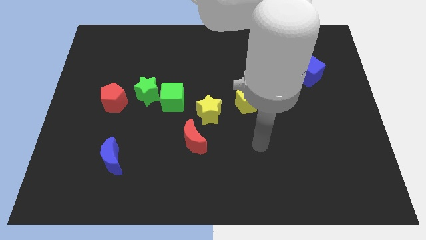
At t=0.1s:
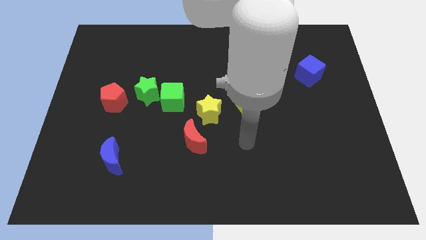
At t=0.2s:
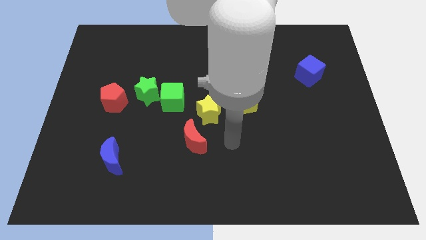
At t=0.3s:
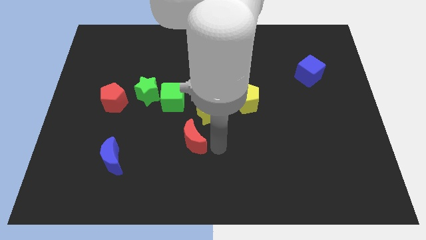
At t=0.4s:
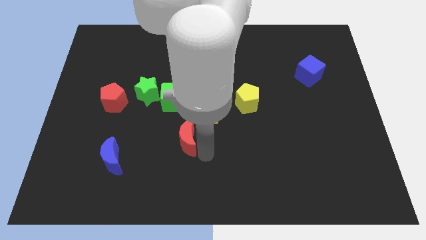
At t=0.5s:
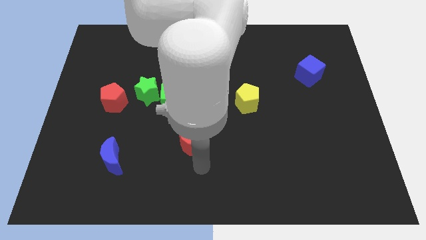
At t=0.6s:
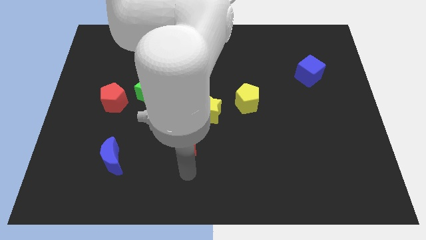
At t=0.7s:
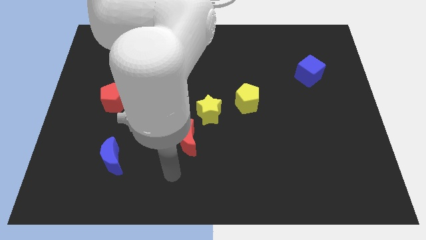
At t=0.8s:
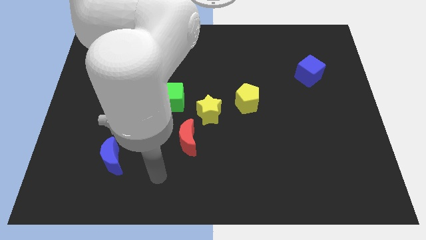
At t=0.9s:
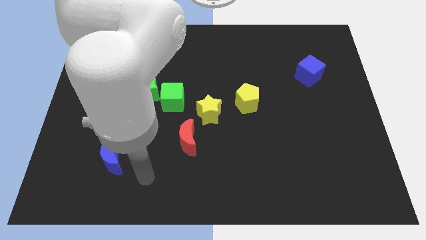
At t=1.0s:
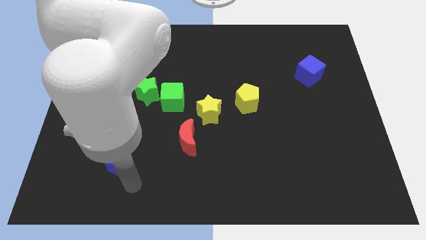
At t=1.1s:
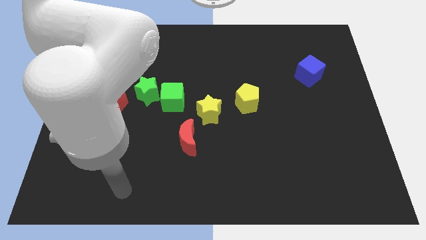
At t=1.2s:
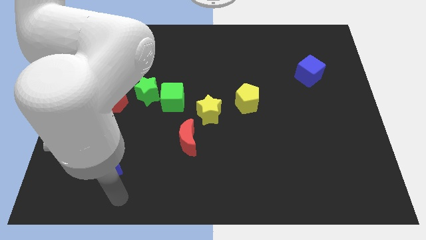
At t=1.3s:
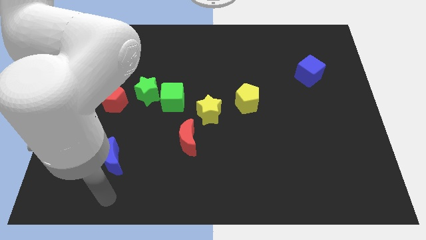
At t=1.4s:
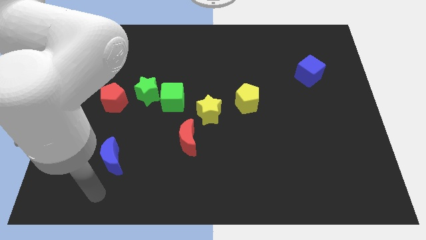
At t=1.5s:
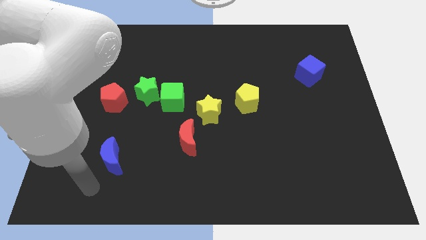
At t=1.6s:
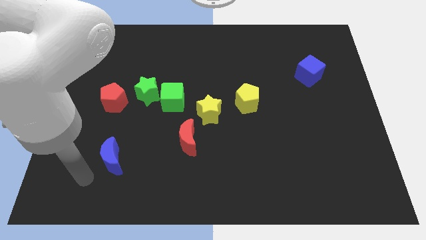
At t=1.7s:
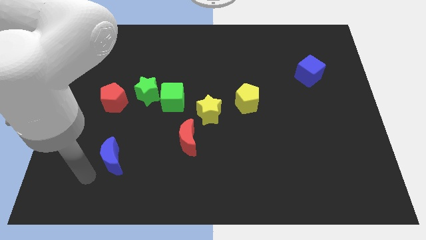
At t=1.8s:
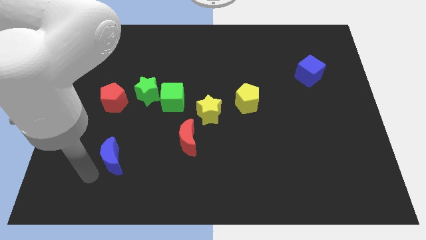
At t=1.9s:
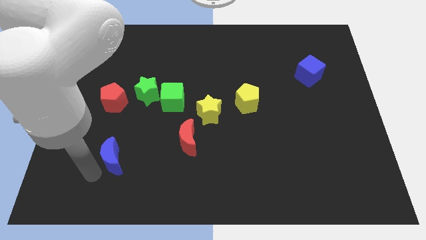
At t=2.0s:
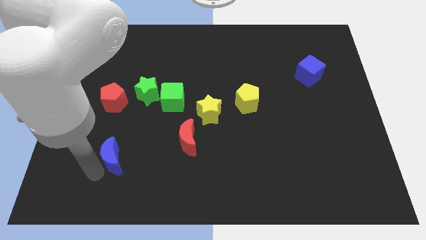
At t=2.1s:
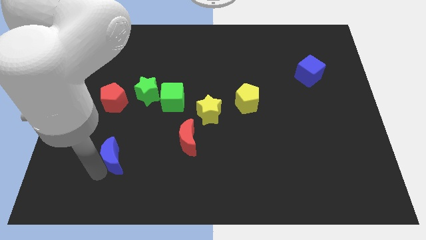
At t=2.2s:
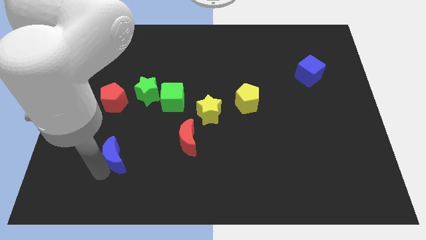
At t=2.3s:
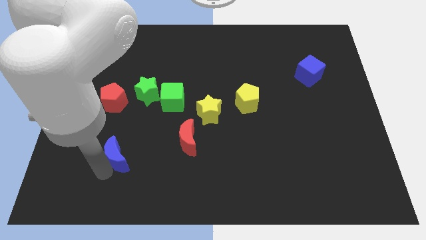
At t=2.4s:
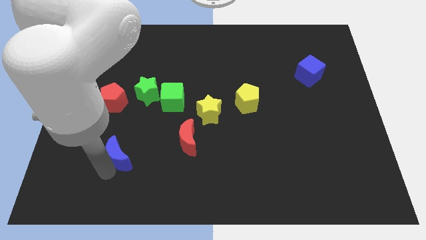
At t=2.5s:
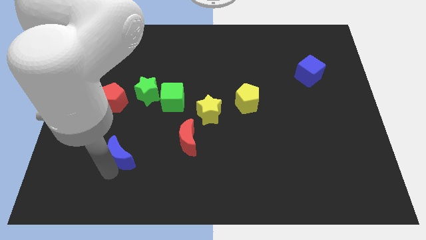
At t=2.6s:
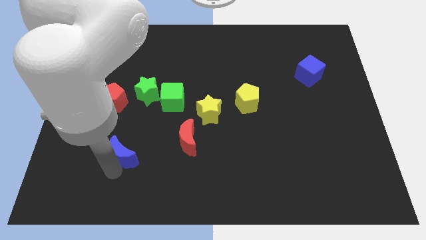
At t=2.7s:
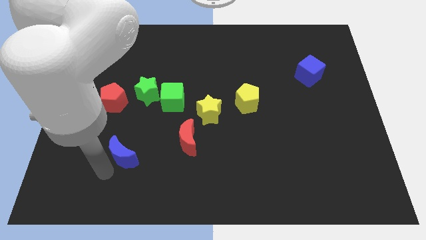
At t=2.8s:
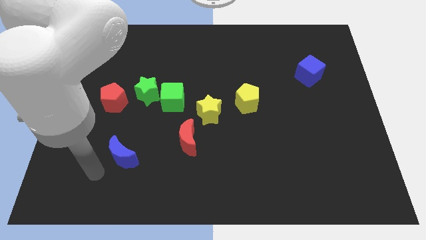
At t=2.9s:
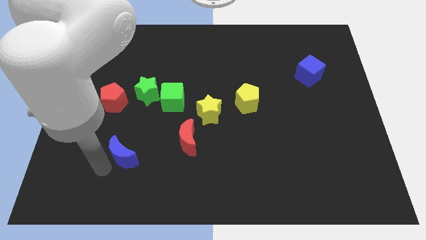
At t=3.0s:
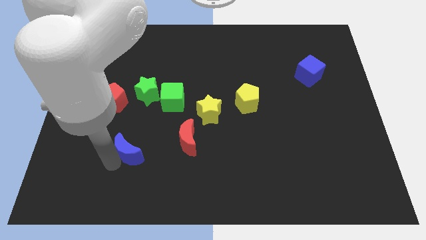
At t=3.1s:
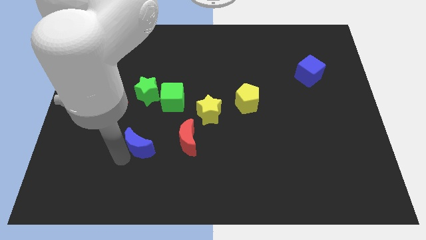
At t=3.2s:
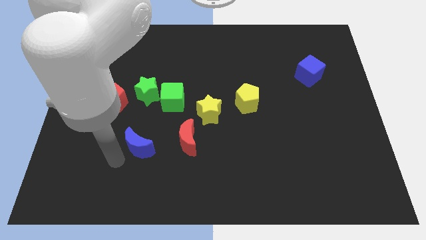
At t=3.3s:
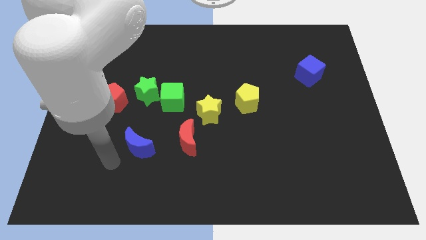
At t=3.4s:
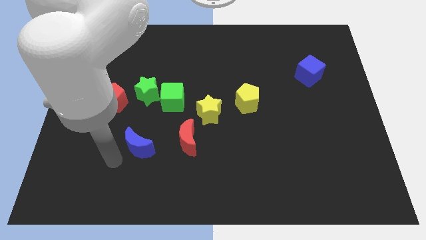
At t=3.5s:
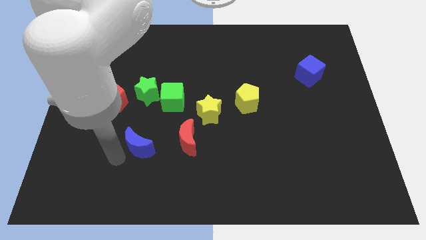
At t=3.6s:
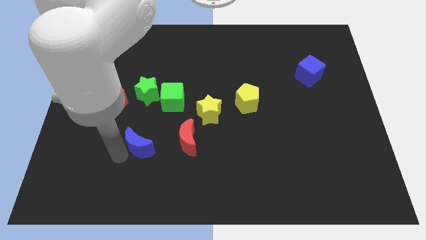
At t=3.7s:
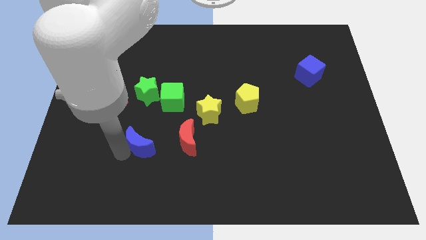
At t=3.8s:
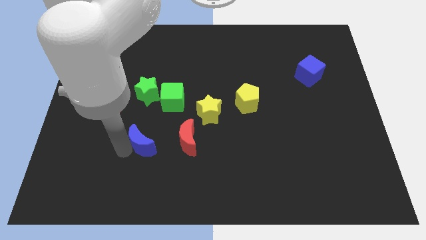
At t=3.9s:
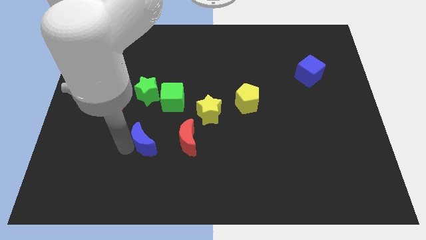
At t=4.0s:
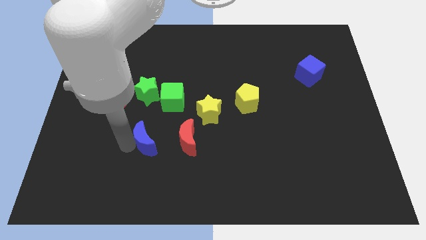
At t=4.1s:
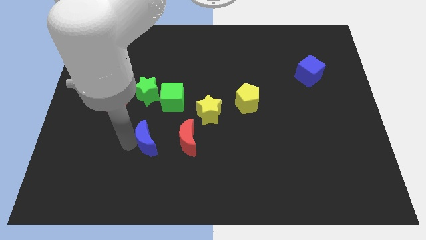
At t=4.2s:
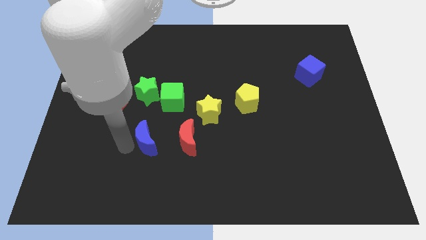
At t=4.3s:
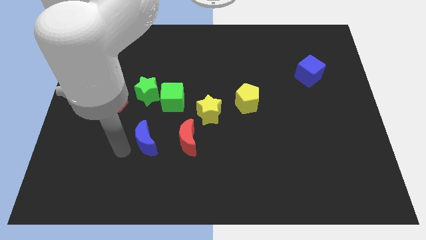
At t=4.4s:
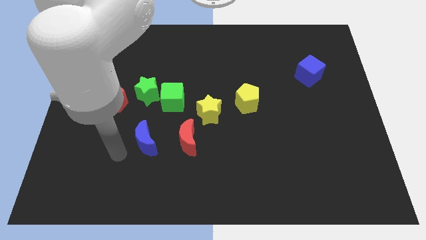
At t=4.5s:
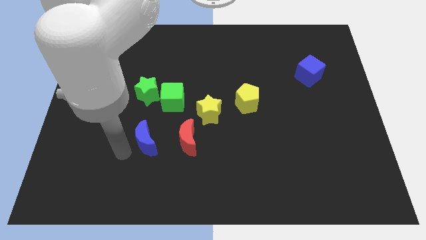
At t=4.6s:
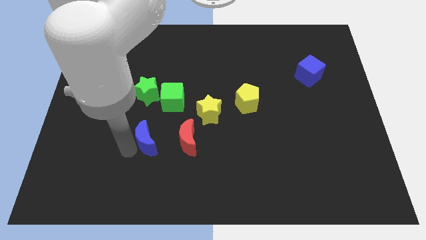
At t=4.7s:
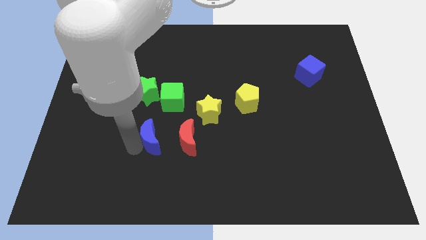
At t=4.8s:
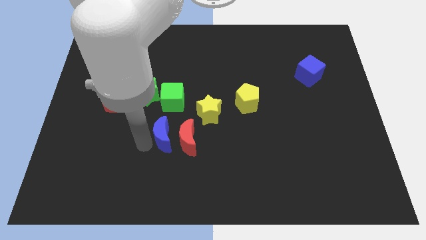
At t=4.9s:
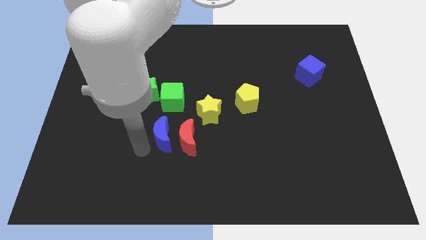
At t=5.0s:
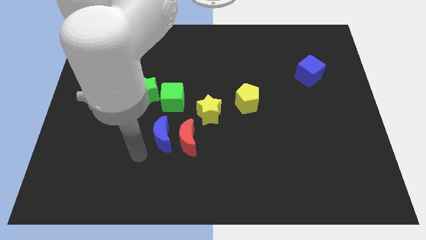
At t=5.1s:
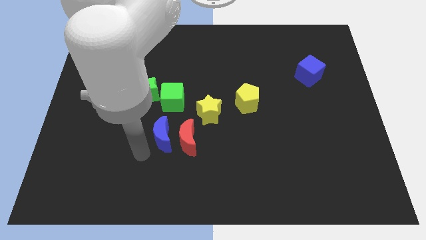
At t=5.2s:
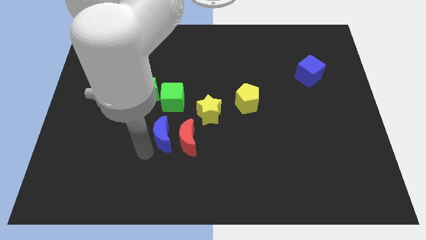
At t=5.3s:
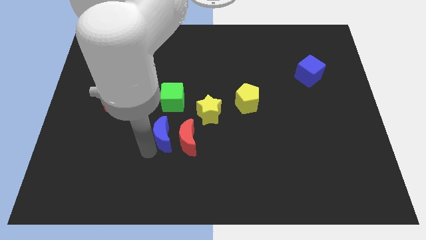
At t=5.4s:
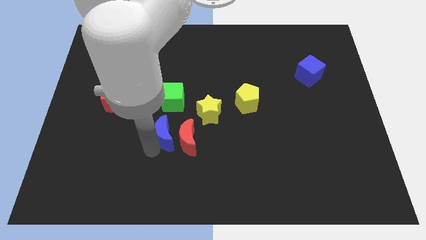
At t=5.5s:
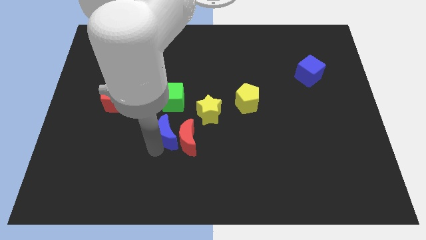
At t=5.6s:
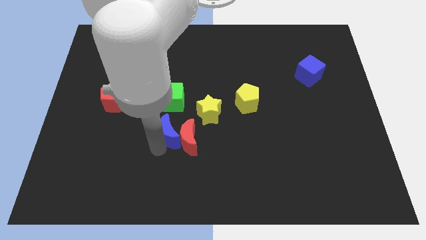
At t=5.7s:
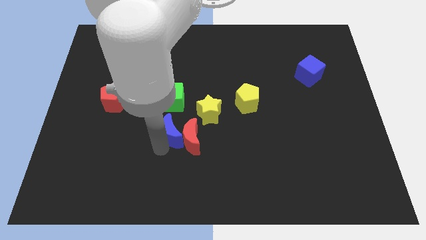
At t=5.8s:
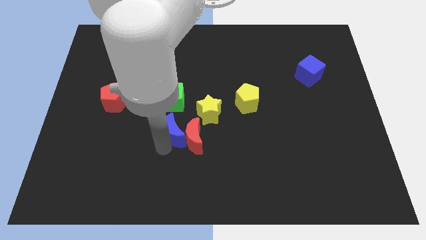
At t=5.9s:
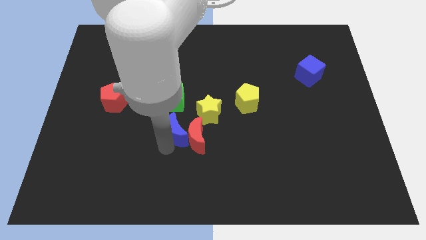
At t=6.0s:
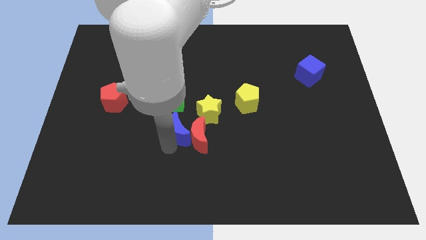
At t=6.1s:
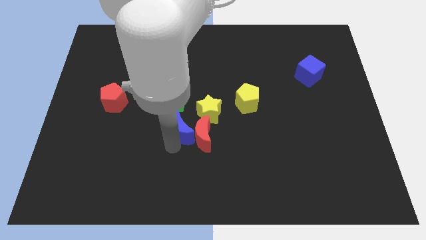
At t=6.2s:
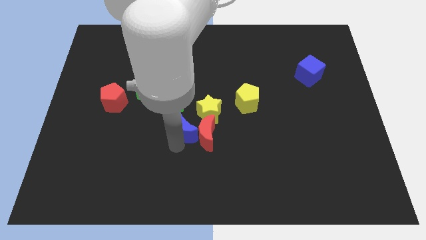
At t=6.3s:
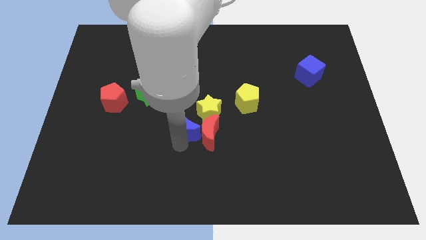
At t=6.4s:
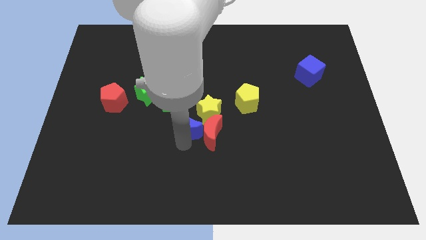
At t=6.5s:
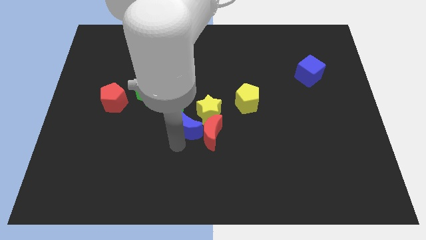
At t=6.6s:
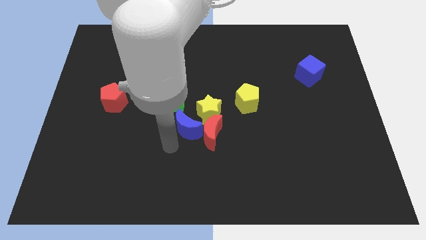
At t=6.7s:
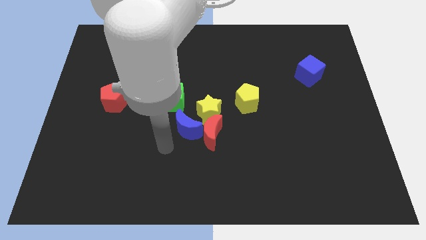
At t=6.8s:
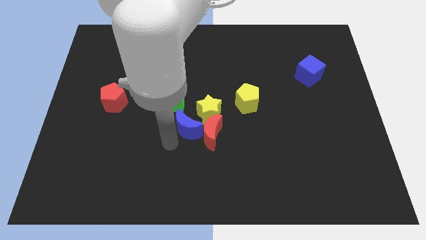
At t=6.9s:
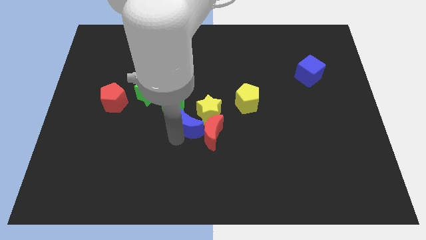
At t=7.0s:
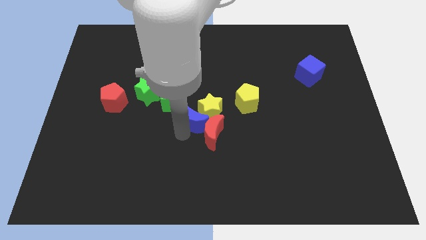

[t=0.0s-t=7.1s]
slide the blue moon to the yellow star
